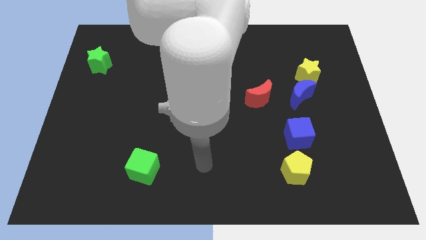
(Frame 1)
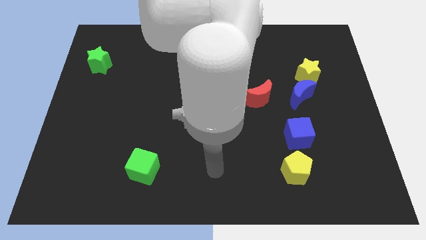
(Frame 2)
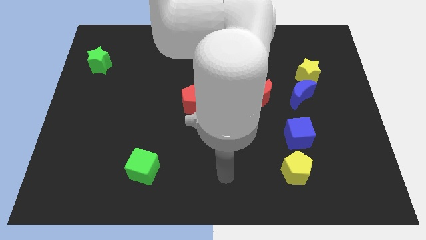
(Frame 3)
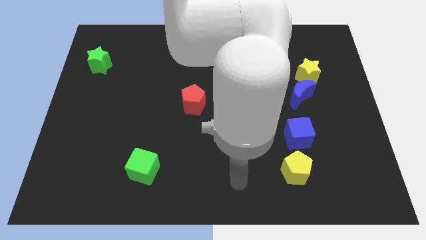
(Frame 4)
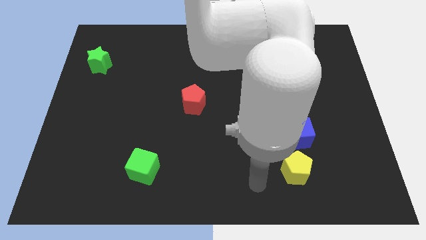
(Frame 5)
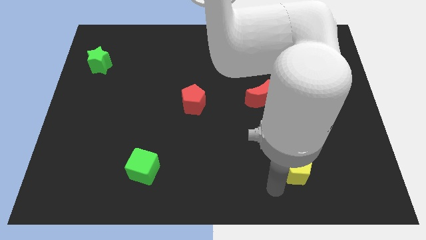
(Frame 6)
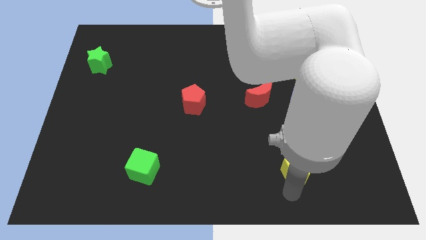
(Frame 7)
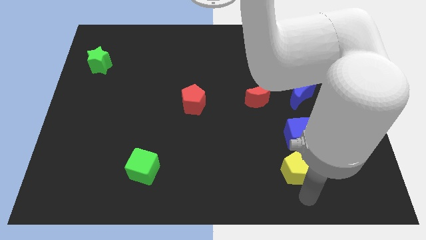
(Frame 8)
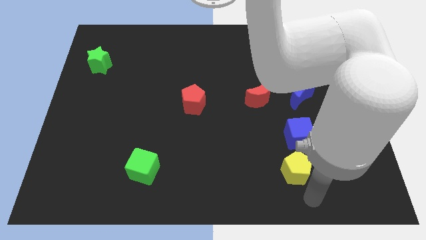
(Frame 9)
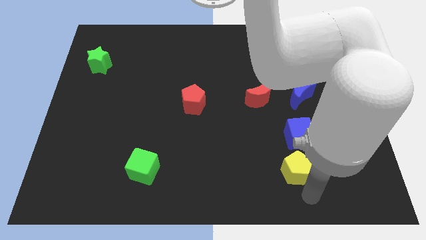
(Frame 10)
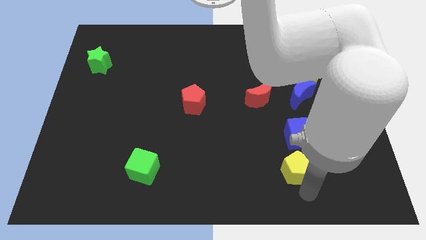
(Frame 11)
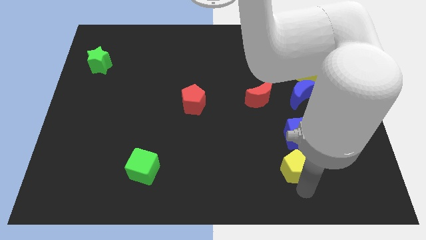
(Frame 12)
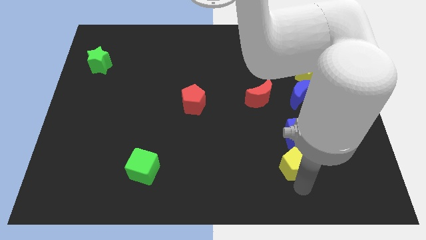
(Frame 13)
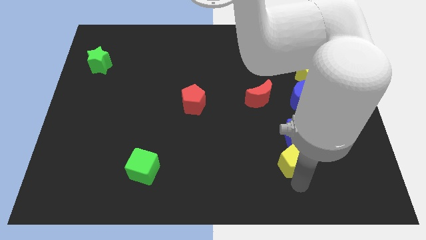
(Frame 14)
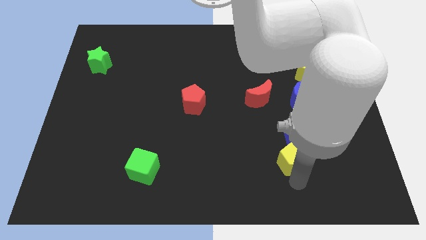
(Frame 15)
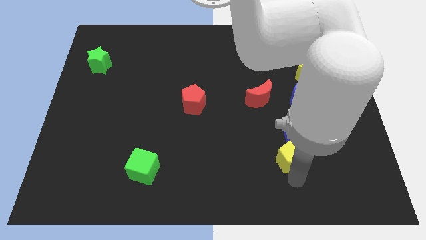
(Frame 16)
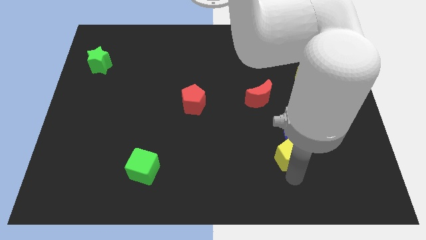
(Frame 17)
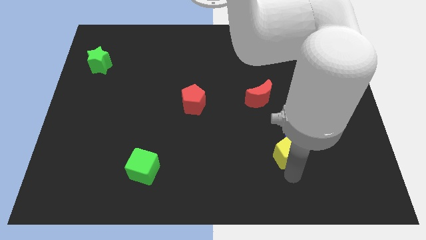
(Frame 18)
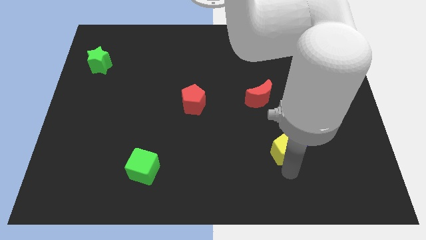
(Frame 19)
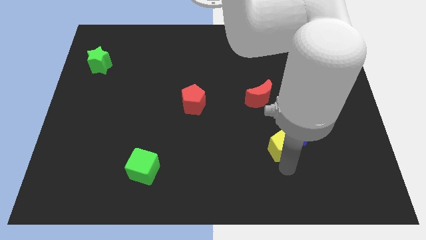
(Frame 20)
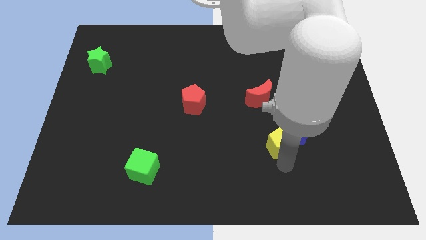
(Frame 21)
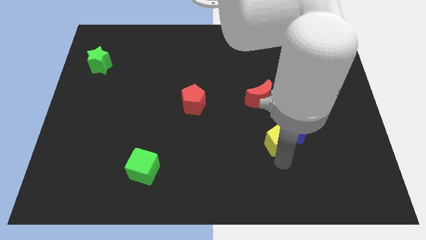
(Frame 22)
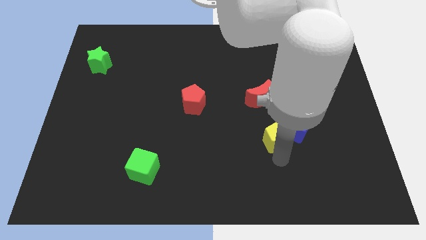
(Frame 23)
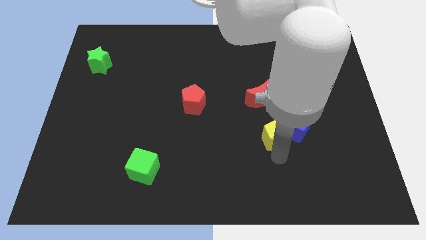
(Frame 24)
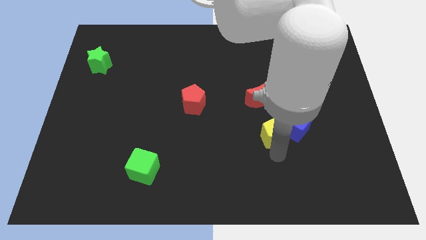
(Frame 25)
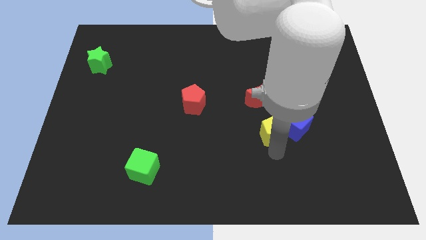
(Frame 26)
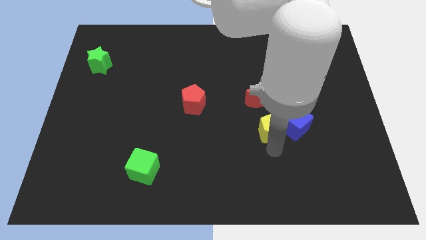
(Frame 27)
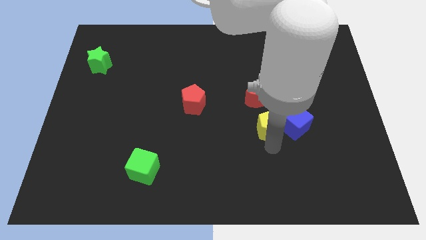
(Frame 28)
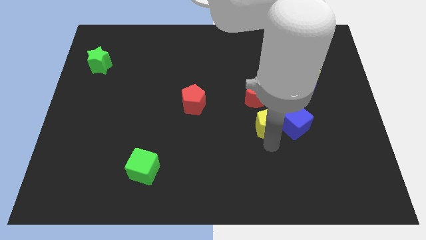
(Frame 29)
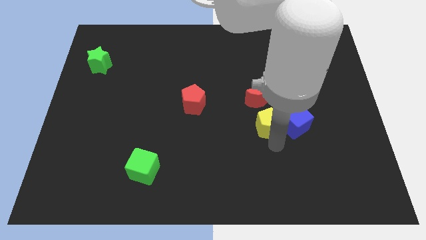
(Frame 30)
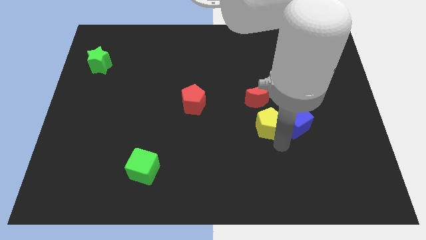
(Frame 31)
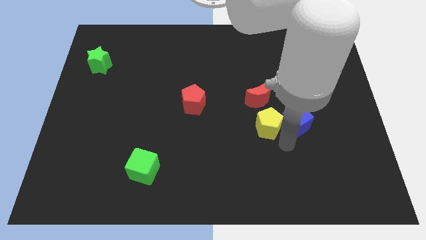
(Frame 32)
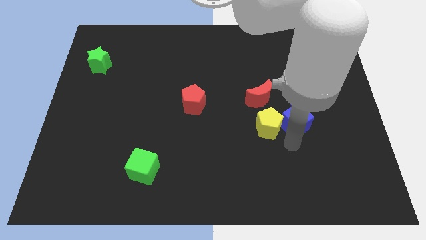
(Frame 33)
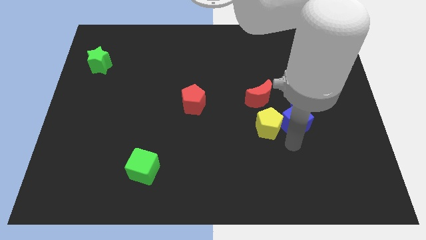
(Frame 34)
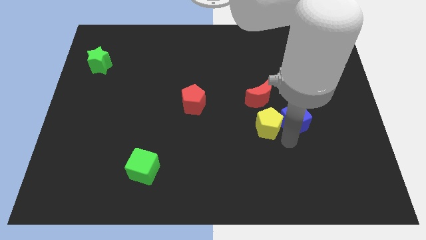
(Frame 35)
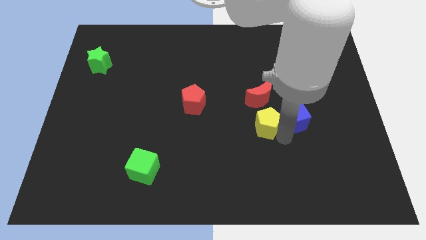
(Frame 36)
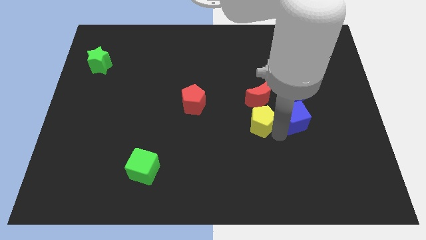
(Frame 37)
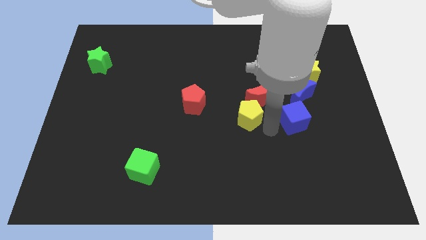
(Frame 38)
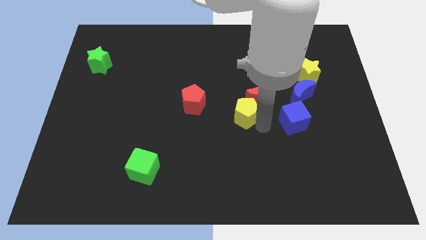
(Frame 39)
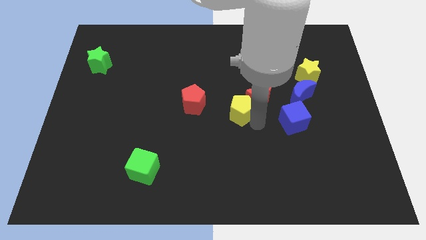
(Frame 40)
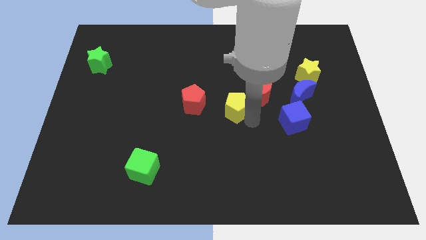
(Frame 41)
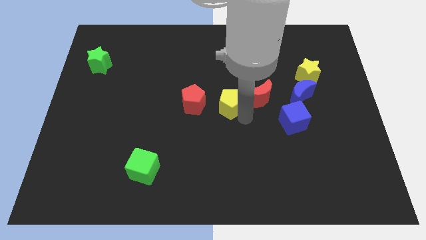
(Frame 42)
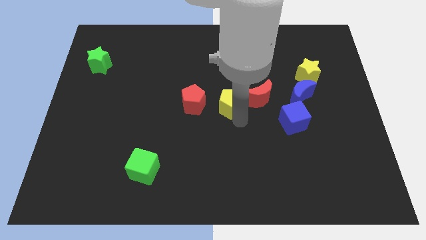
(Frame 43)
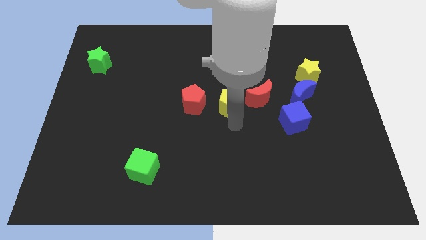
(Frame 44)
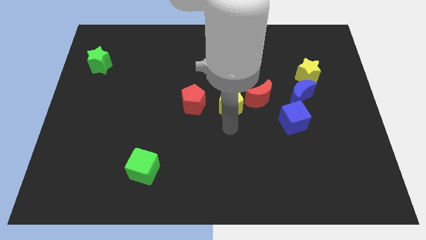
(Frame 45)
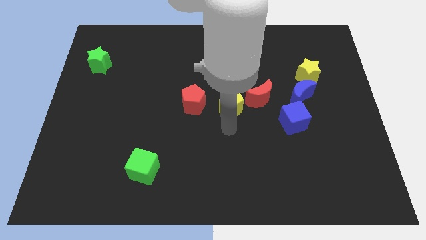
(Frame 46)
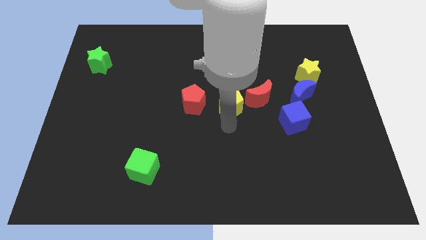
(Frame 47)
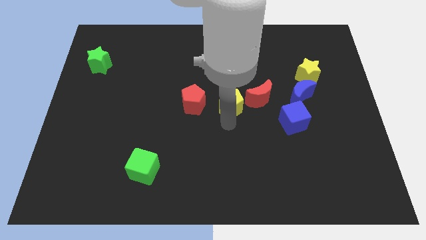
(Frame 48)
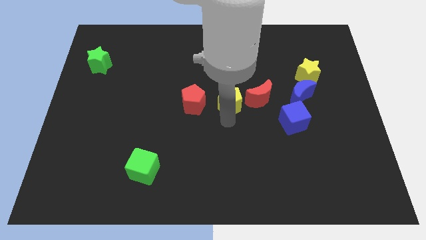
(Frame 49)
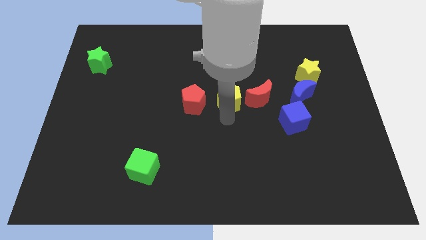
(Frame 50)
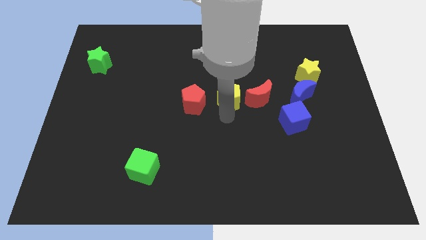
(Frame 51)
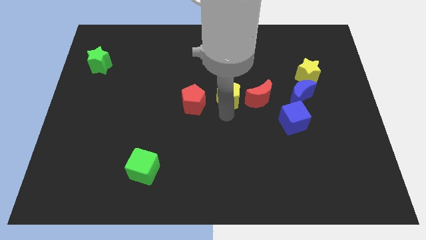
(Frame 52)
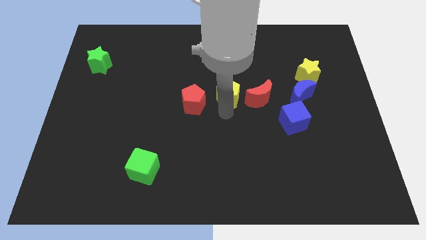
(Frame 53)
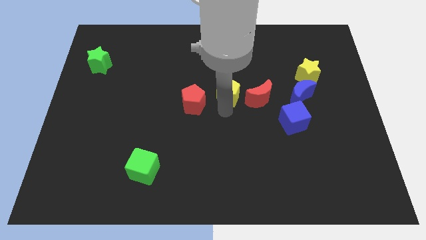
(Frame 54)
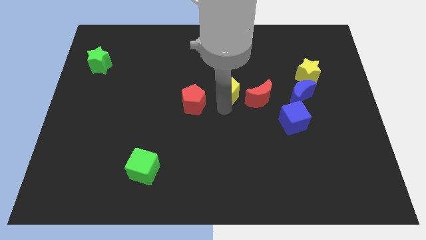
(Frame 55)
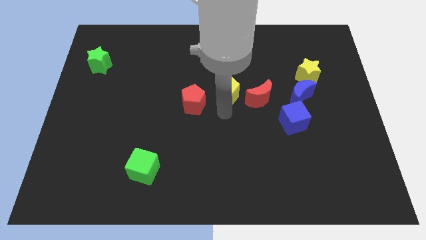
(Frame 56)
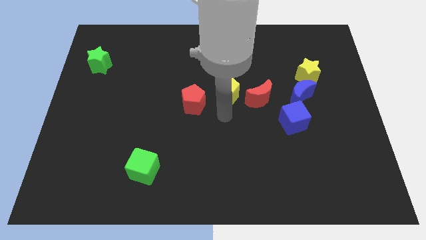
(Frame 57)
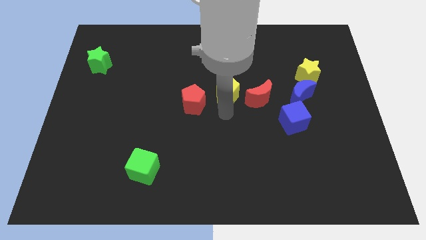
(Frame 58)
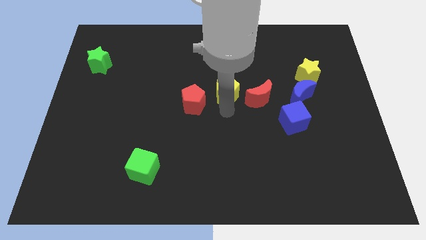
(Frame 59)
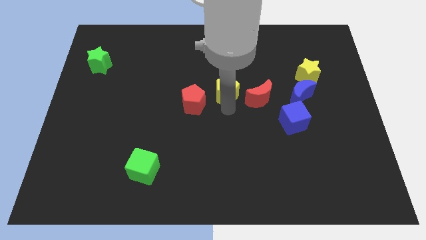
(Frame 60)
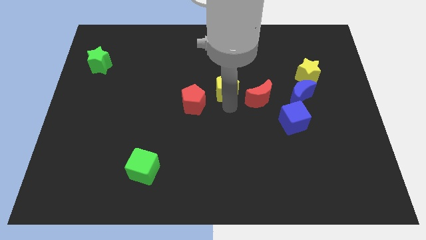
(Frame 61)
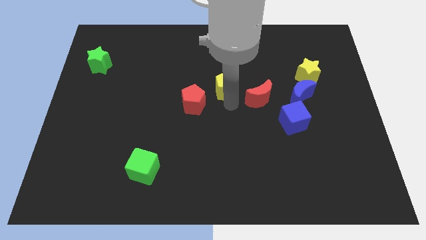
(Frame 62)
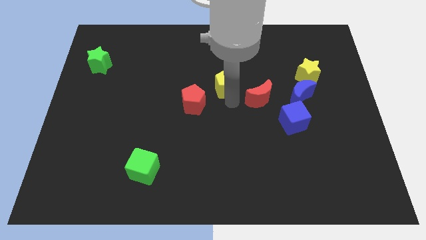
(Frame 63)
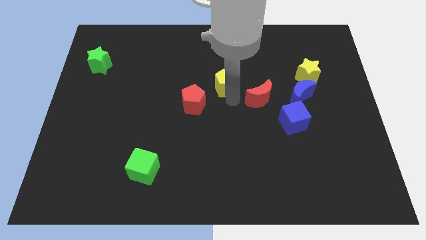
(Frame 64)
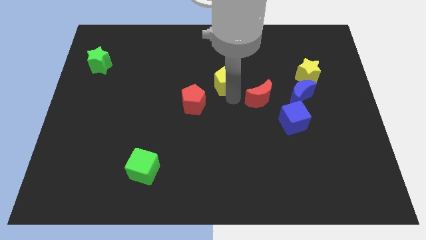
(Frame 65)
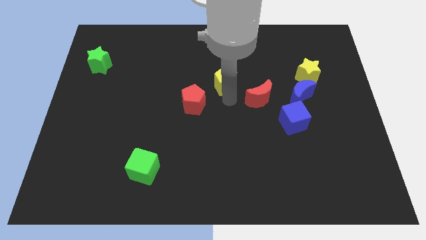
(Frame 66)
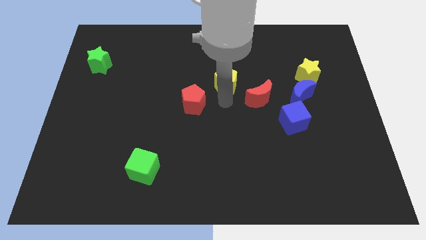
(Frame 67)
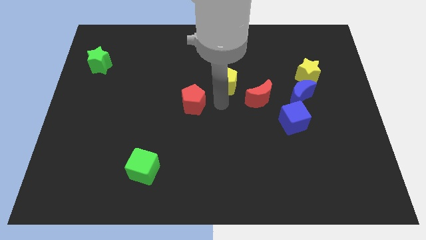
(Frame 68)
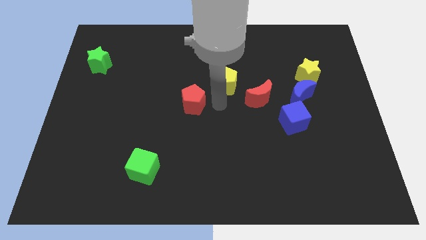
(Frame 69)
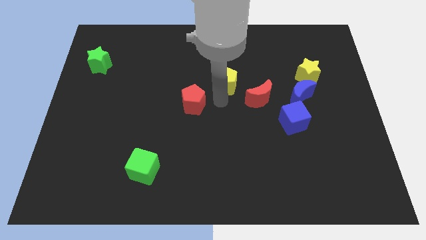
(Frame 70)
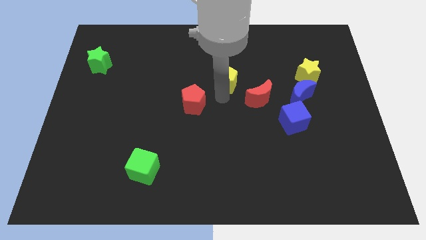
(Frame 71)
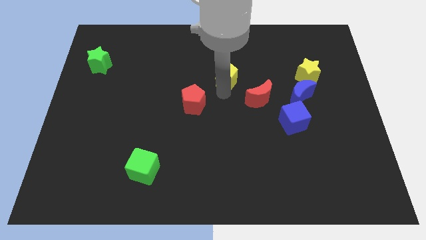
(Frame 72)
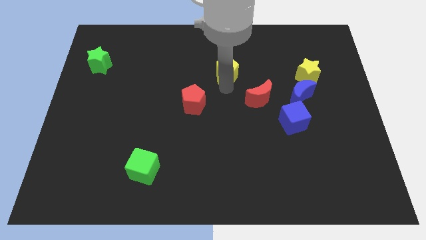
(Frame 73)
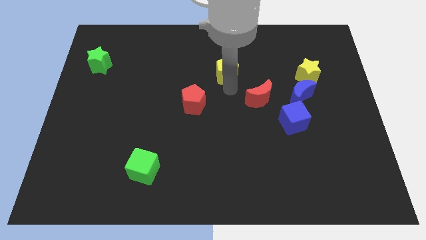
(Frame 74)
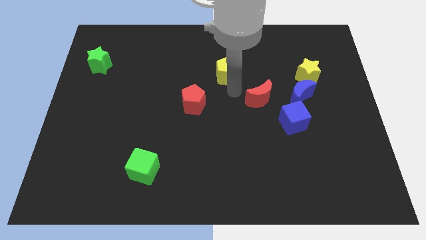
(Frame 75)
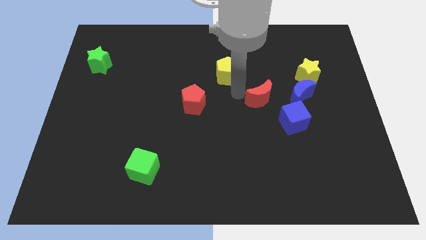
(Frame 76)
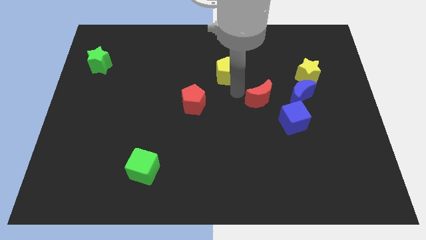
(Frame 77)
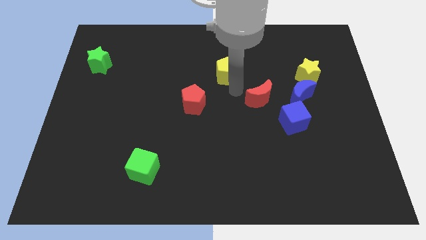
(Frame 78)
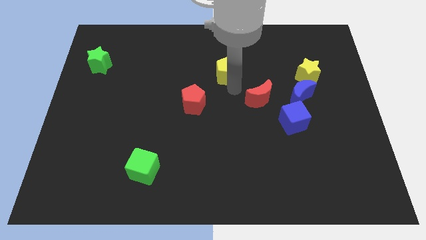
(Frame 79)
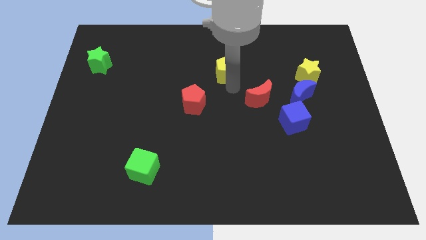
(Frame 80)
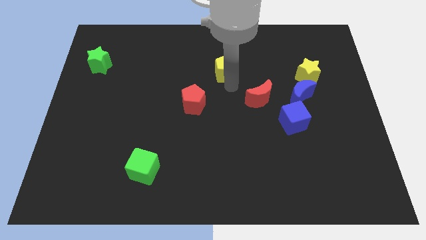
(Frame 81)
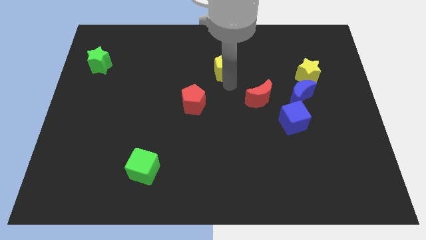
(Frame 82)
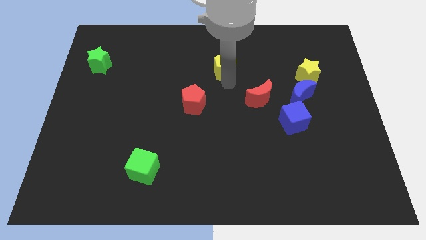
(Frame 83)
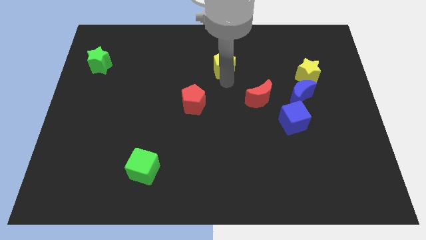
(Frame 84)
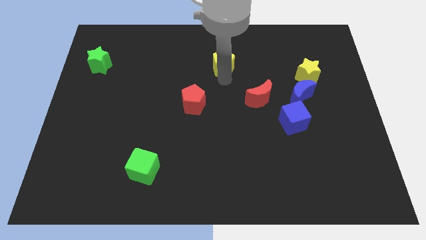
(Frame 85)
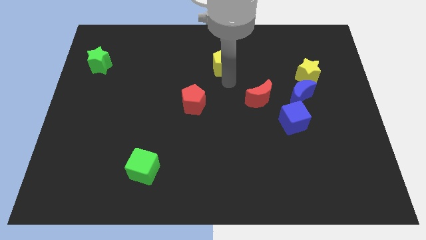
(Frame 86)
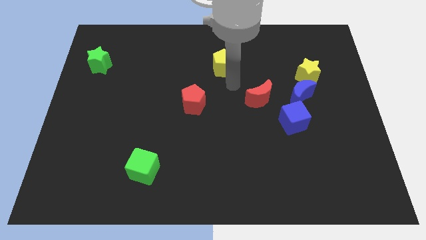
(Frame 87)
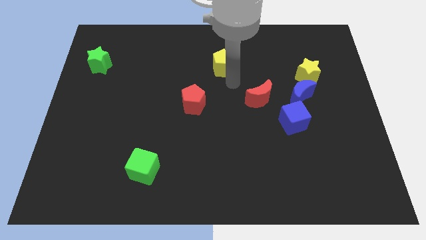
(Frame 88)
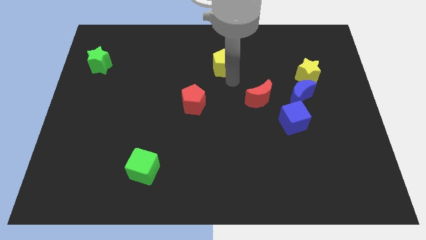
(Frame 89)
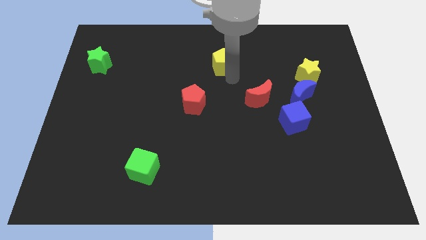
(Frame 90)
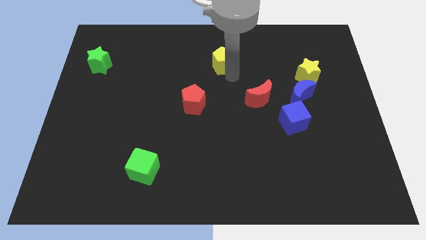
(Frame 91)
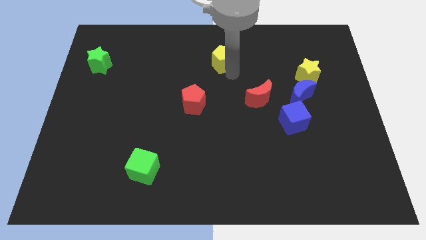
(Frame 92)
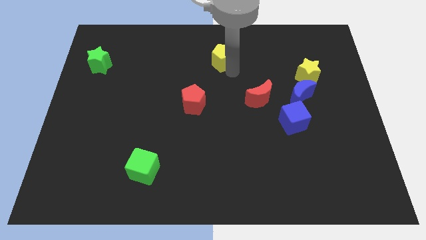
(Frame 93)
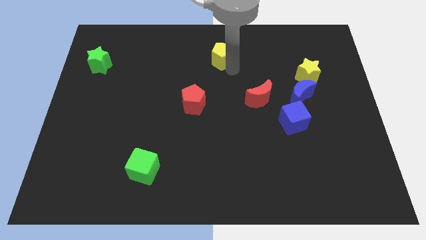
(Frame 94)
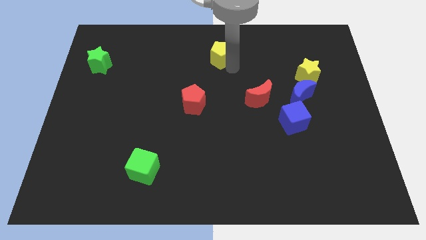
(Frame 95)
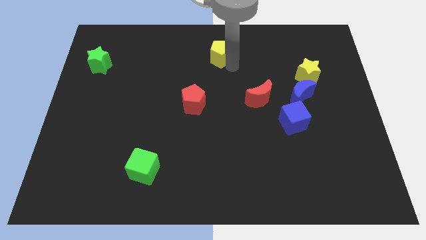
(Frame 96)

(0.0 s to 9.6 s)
push the yellow pentagon to the top
